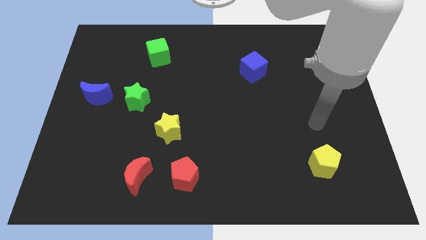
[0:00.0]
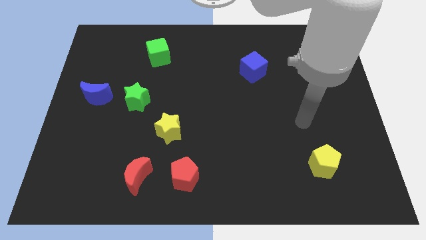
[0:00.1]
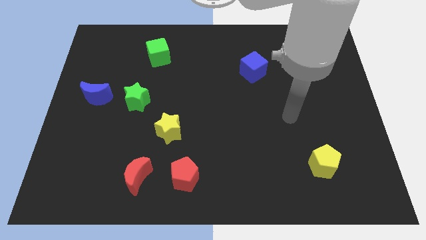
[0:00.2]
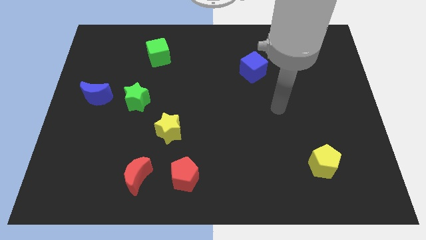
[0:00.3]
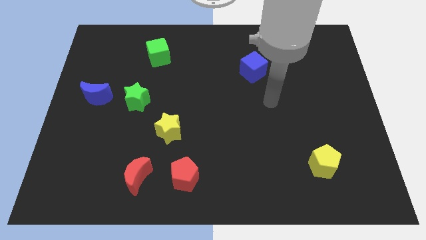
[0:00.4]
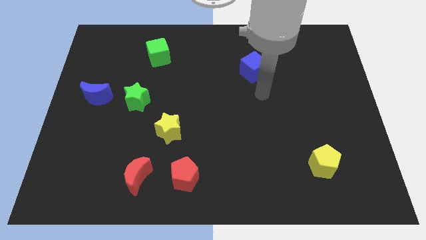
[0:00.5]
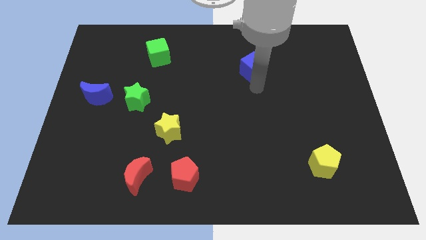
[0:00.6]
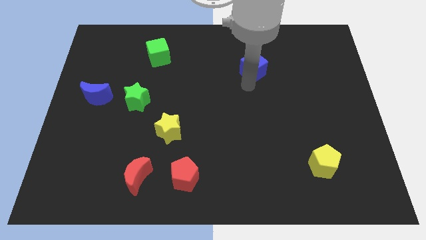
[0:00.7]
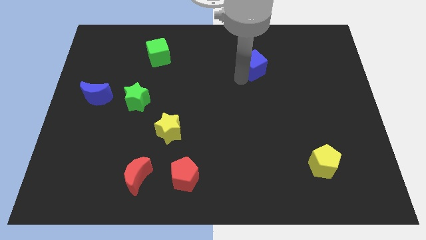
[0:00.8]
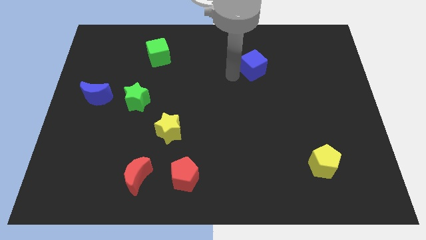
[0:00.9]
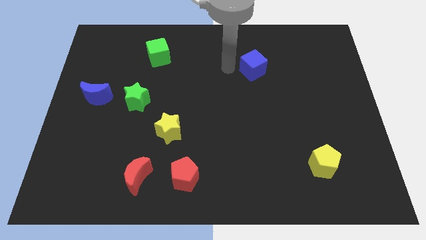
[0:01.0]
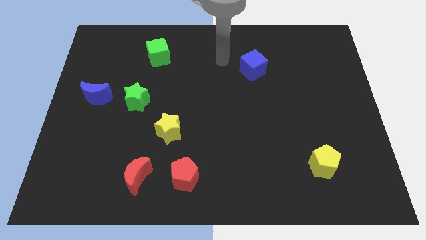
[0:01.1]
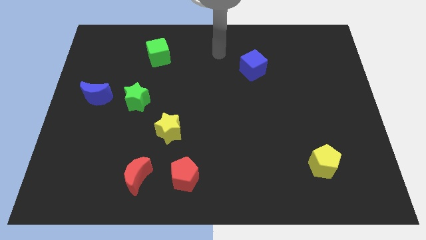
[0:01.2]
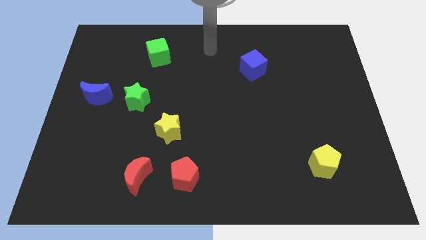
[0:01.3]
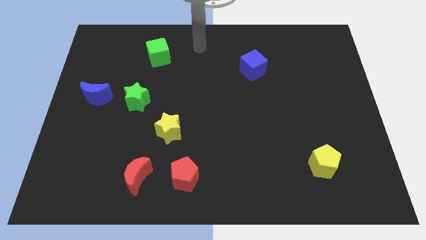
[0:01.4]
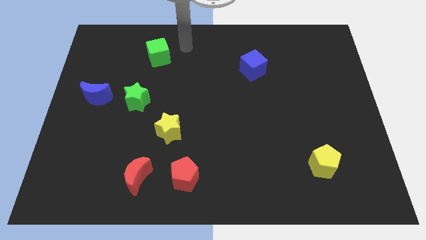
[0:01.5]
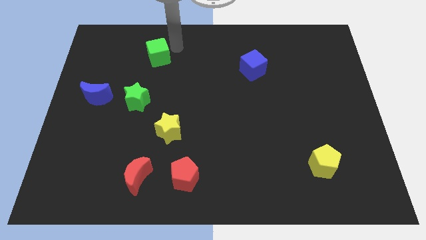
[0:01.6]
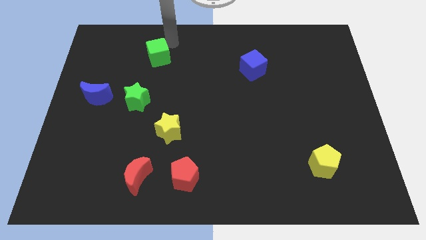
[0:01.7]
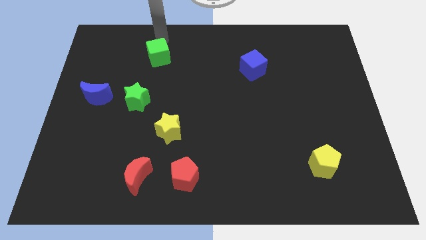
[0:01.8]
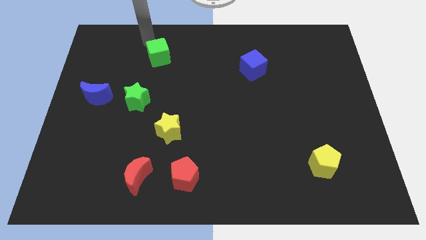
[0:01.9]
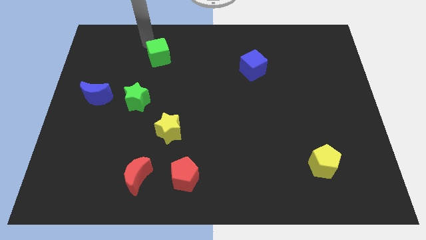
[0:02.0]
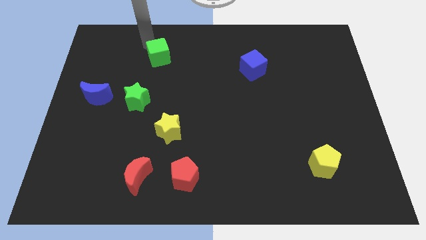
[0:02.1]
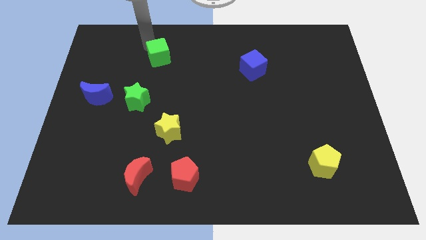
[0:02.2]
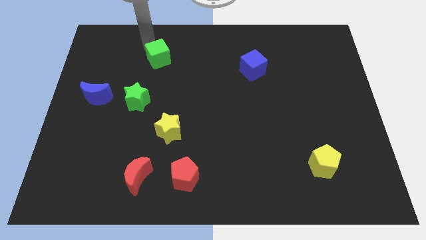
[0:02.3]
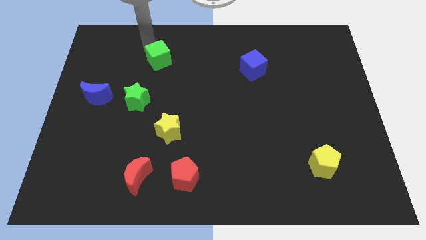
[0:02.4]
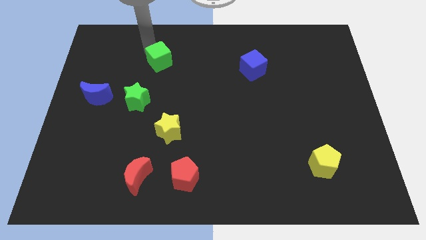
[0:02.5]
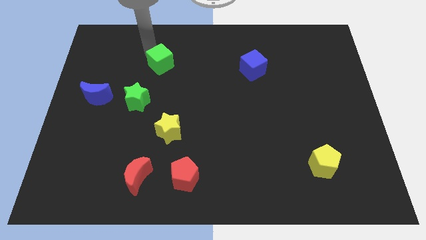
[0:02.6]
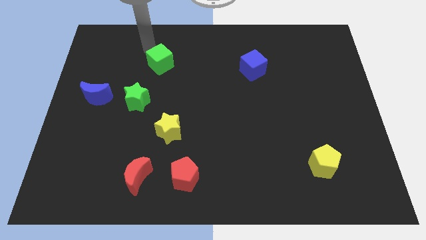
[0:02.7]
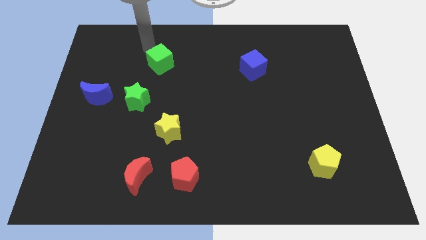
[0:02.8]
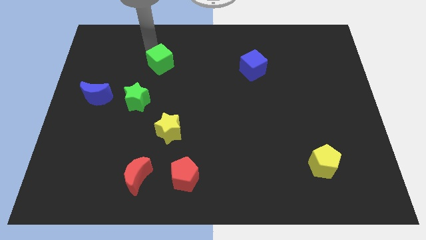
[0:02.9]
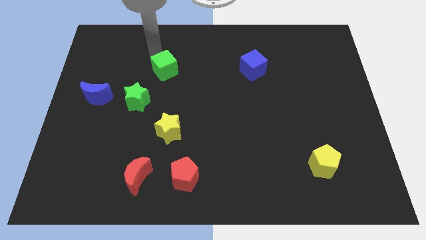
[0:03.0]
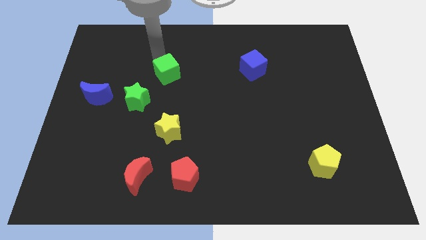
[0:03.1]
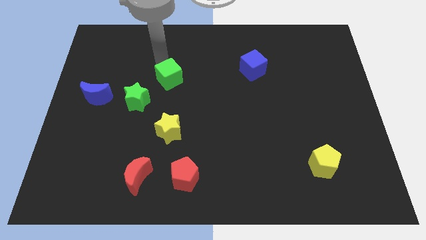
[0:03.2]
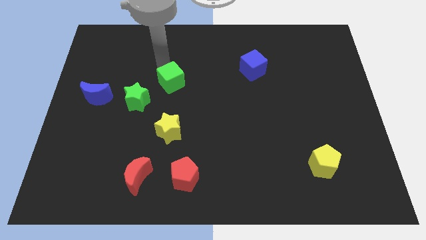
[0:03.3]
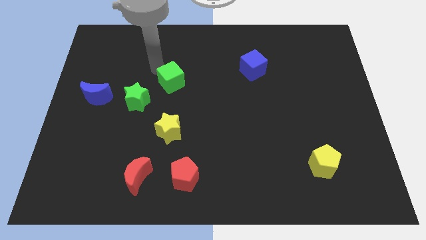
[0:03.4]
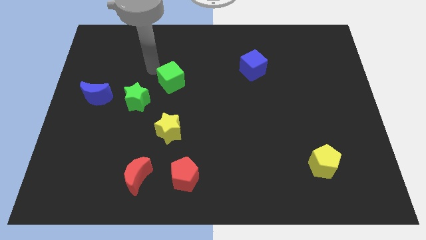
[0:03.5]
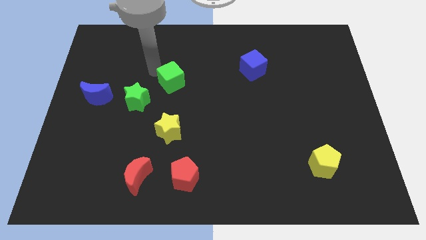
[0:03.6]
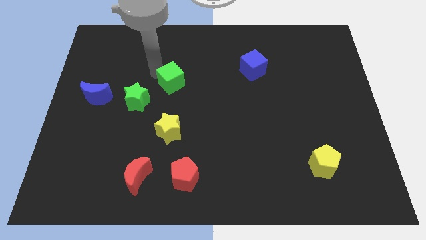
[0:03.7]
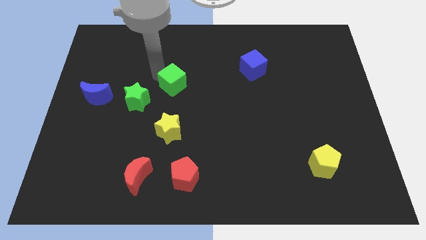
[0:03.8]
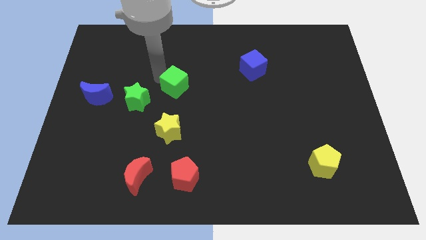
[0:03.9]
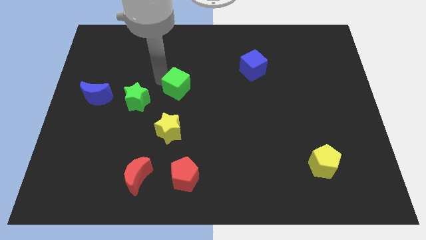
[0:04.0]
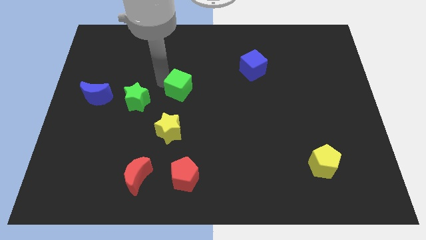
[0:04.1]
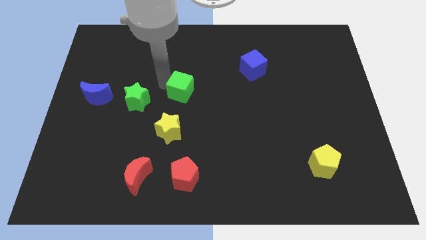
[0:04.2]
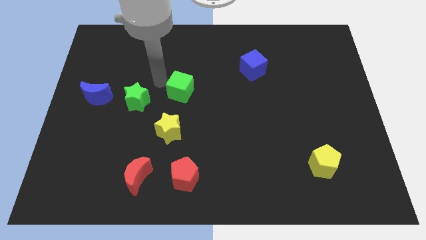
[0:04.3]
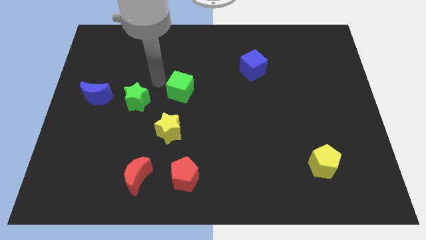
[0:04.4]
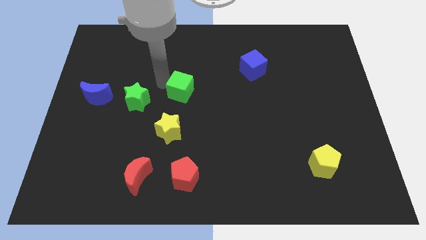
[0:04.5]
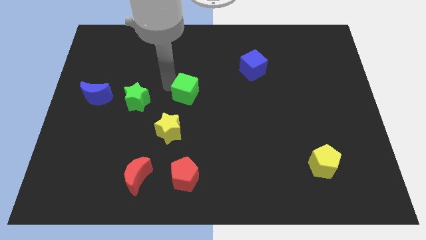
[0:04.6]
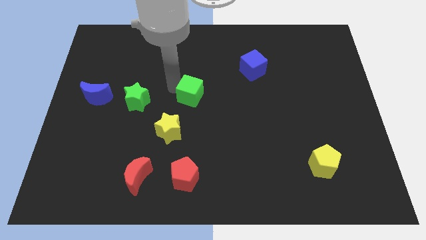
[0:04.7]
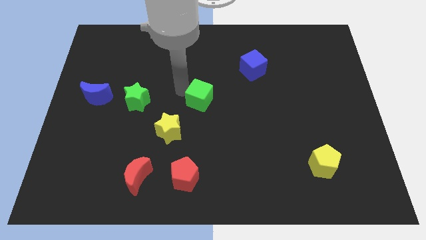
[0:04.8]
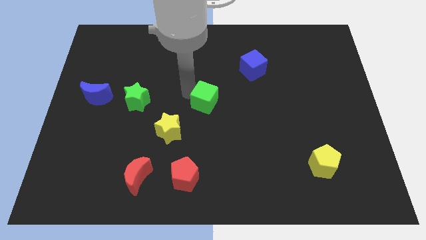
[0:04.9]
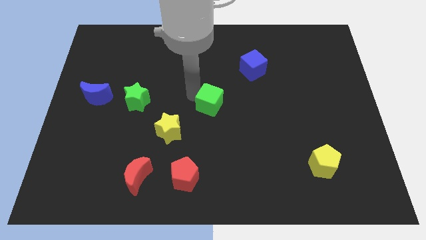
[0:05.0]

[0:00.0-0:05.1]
slide the green cube downwards and then to the right

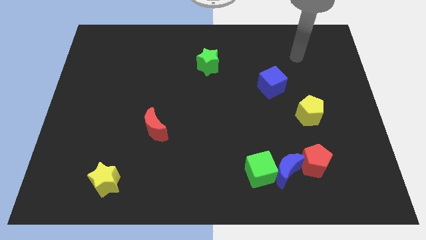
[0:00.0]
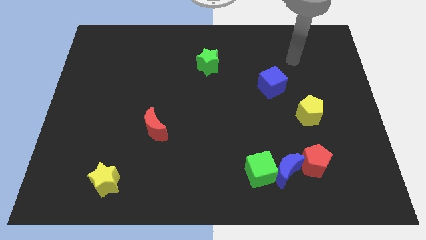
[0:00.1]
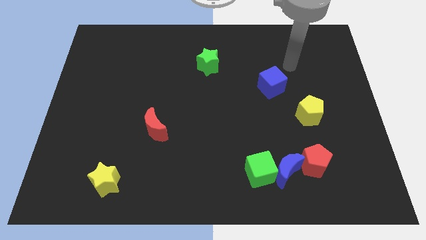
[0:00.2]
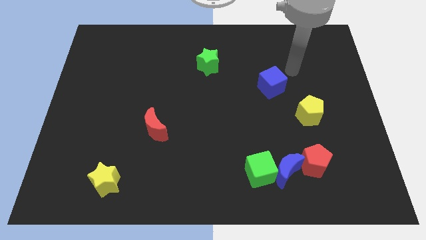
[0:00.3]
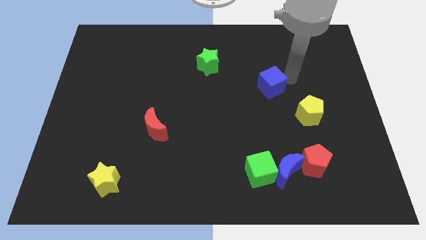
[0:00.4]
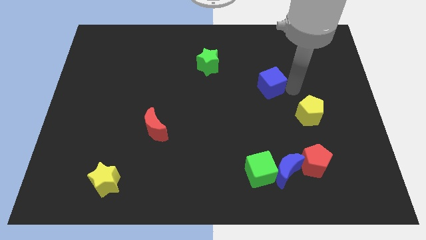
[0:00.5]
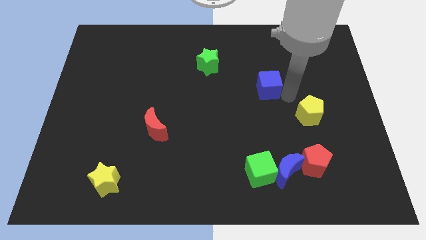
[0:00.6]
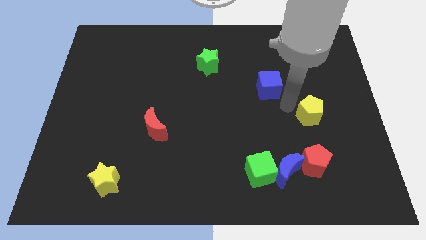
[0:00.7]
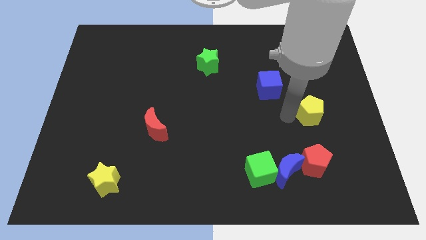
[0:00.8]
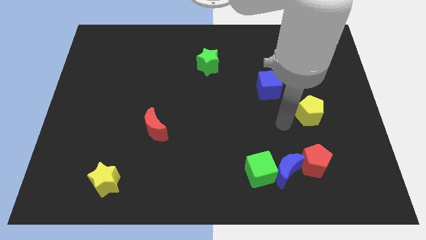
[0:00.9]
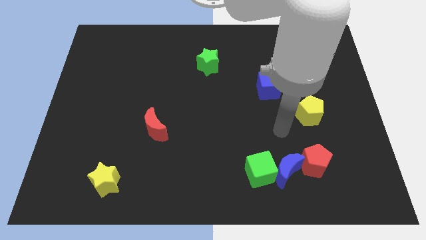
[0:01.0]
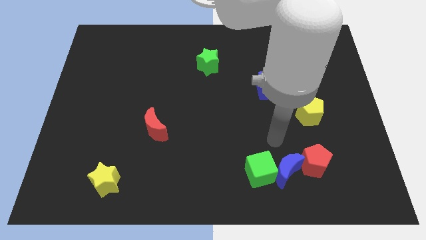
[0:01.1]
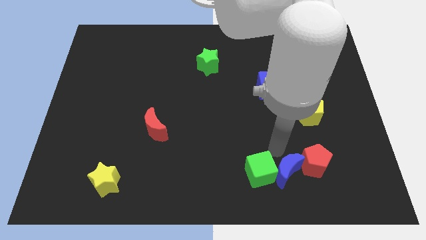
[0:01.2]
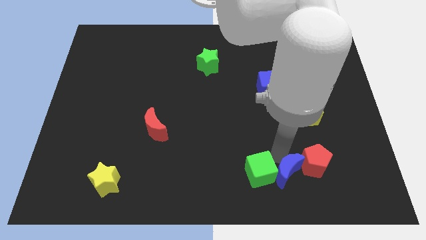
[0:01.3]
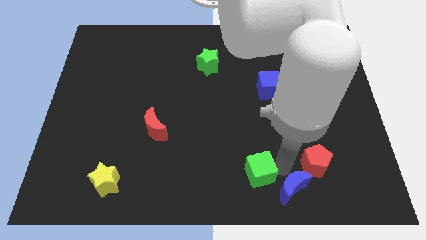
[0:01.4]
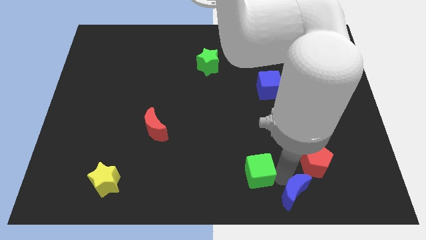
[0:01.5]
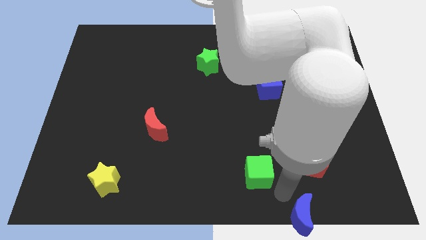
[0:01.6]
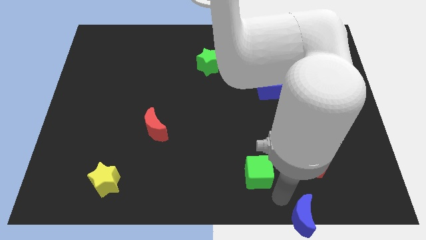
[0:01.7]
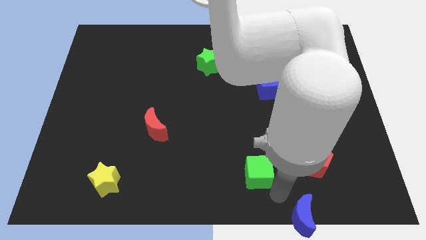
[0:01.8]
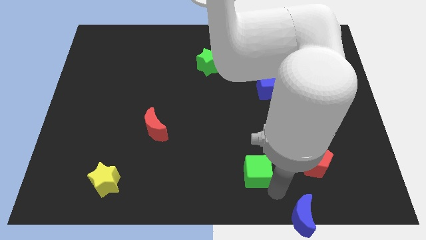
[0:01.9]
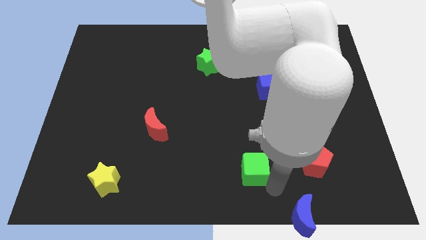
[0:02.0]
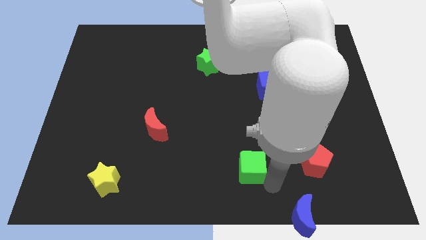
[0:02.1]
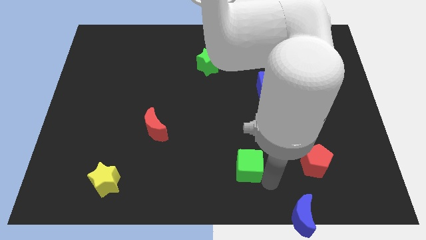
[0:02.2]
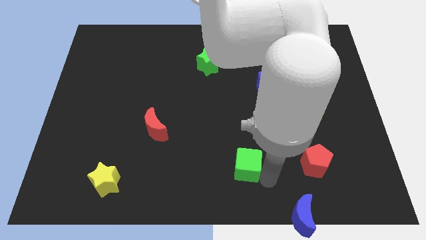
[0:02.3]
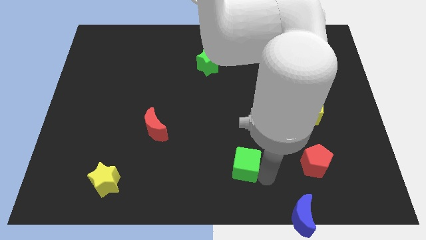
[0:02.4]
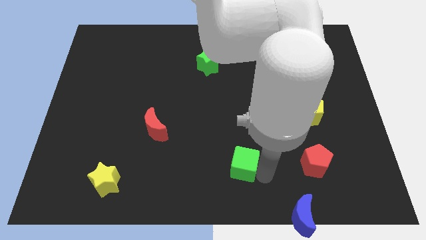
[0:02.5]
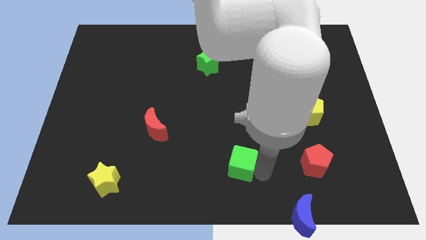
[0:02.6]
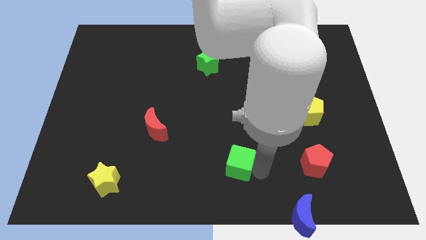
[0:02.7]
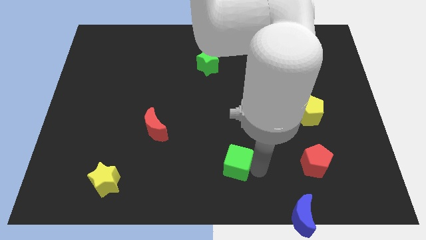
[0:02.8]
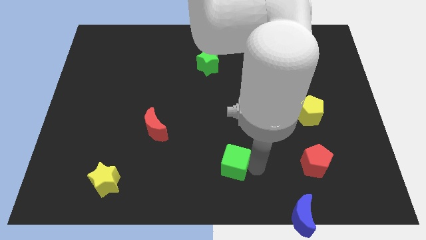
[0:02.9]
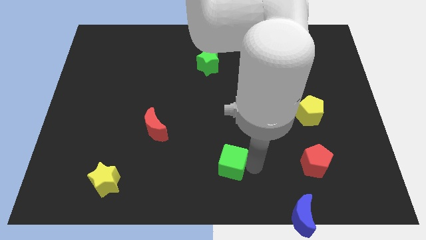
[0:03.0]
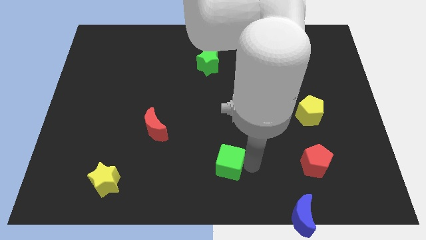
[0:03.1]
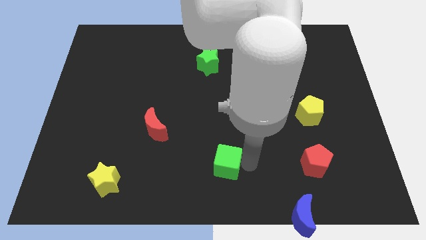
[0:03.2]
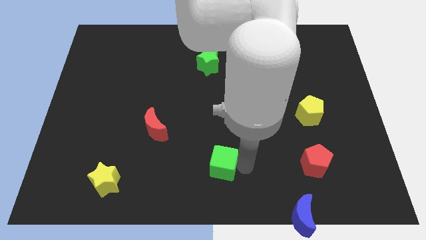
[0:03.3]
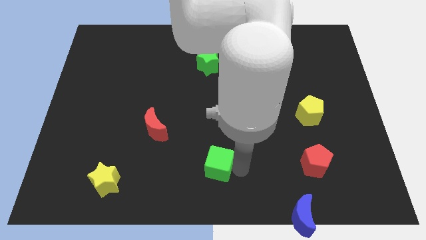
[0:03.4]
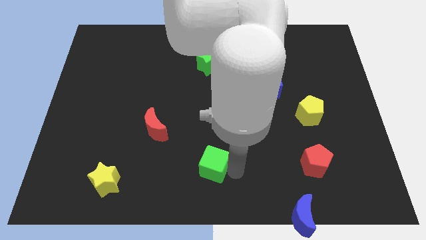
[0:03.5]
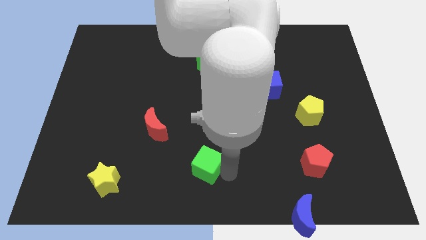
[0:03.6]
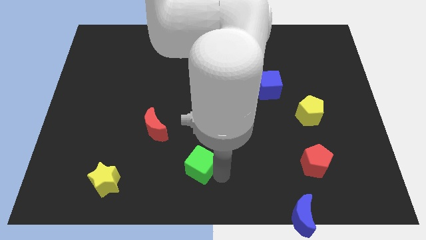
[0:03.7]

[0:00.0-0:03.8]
slide the green cube a bit upwards and left
